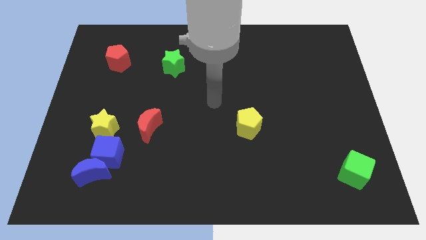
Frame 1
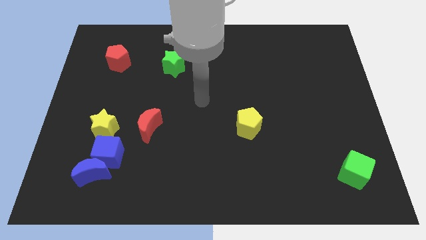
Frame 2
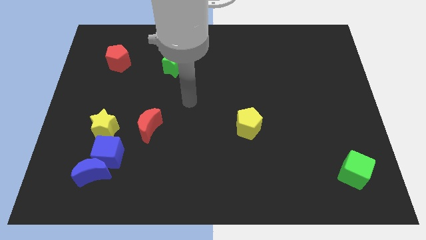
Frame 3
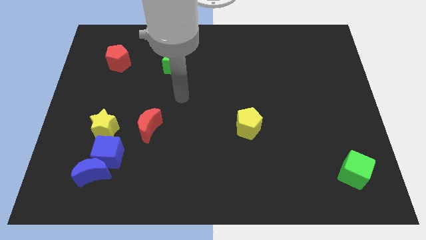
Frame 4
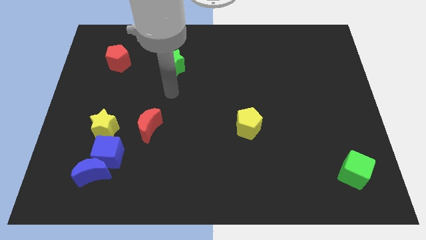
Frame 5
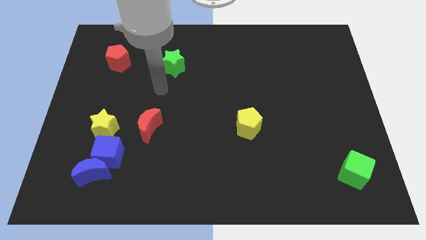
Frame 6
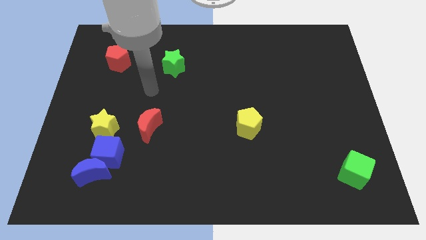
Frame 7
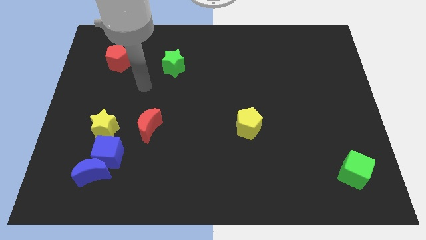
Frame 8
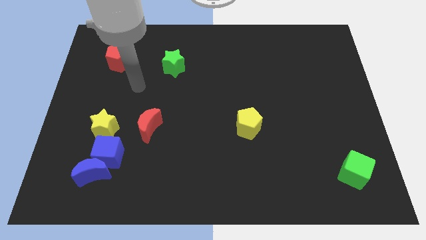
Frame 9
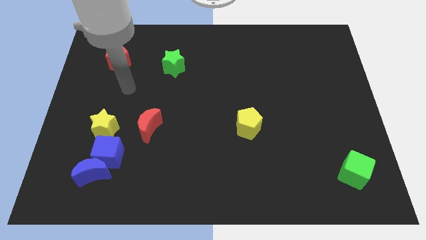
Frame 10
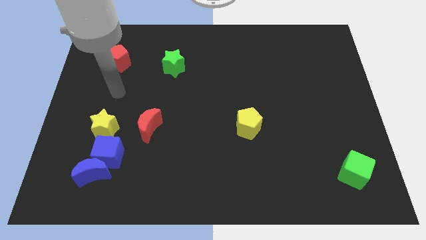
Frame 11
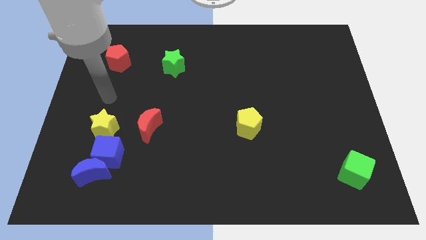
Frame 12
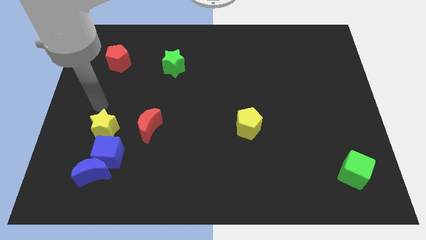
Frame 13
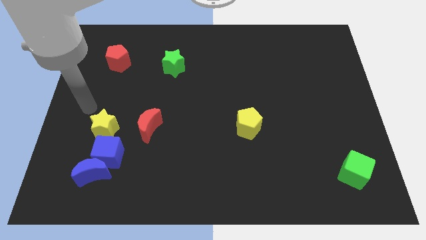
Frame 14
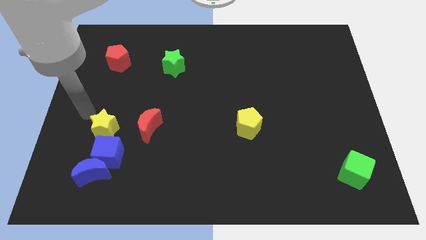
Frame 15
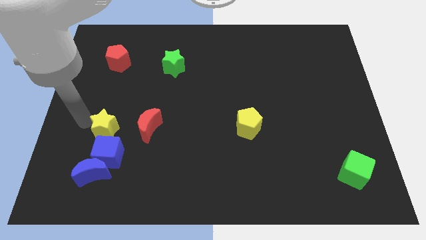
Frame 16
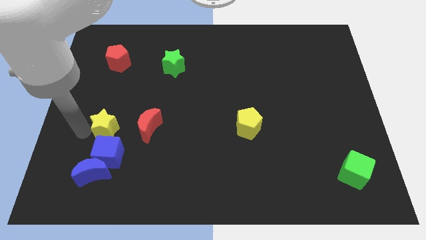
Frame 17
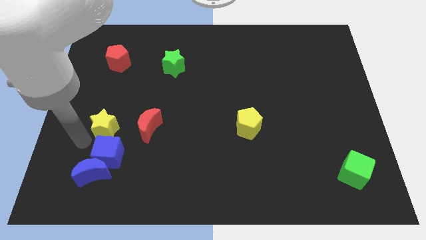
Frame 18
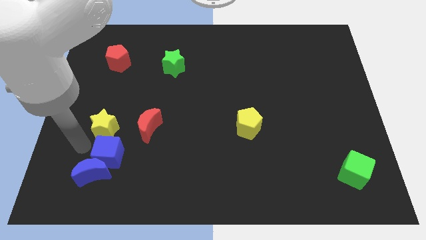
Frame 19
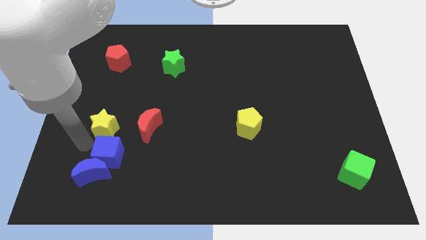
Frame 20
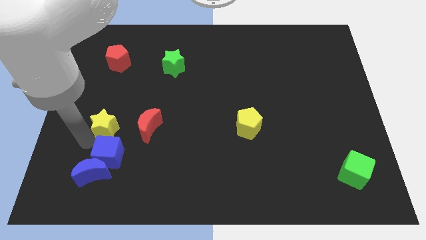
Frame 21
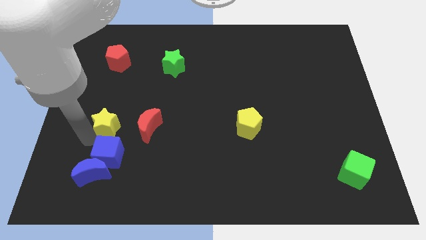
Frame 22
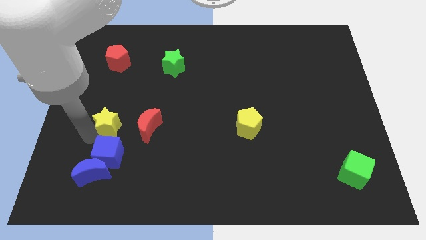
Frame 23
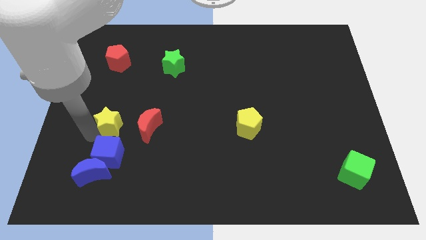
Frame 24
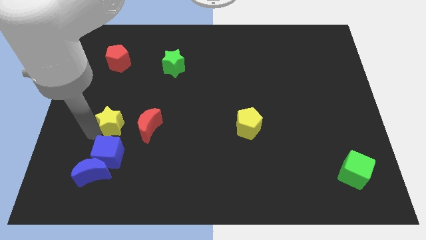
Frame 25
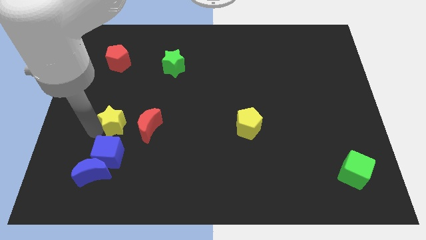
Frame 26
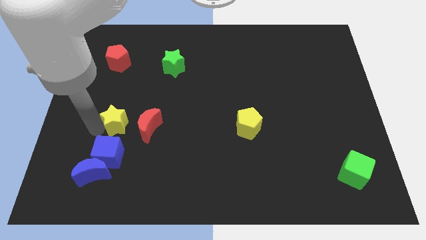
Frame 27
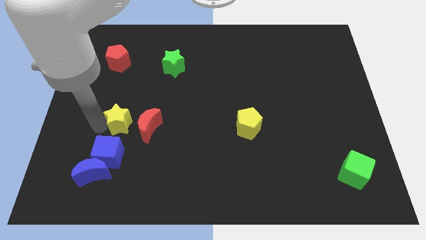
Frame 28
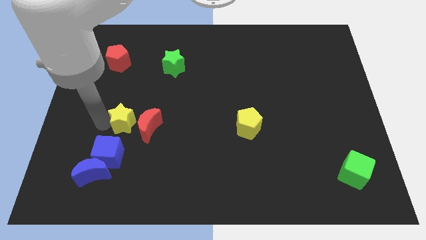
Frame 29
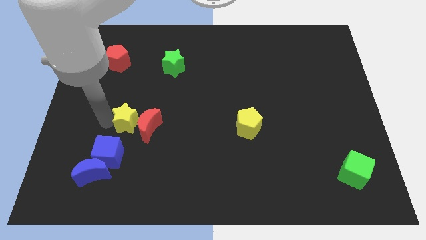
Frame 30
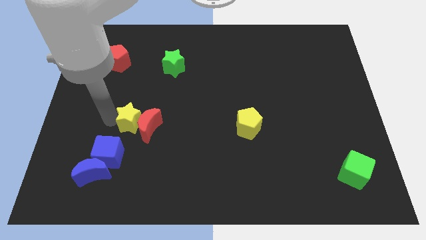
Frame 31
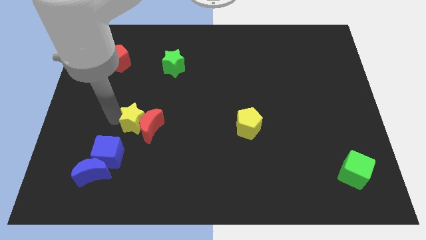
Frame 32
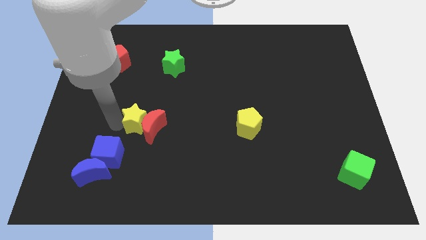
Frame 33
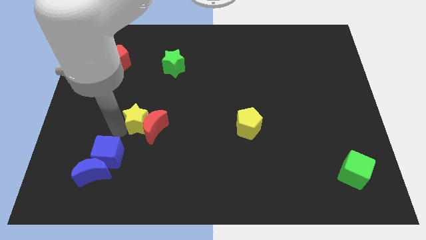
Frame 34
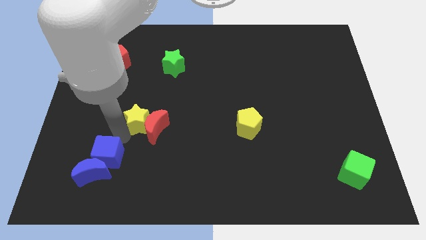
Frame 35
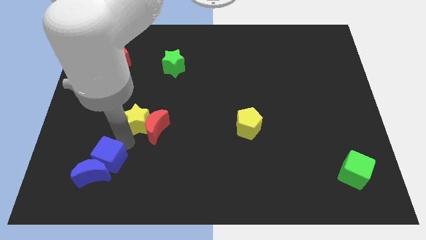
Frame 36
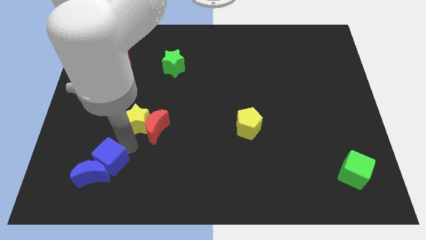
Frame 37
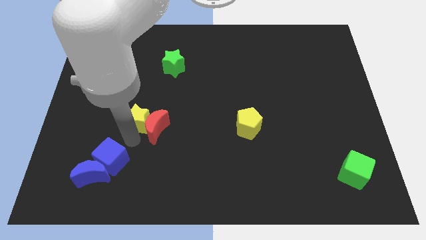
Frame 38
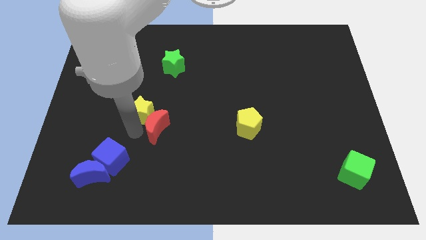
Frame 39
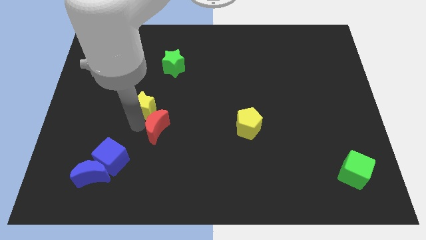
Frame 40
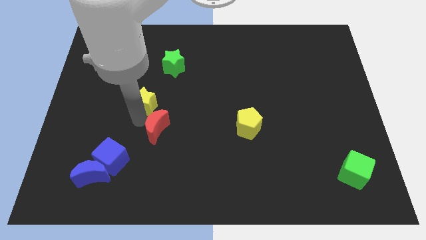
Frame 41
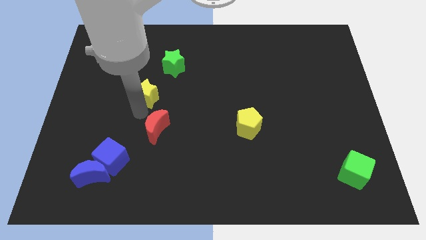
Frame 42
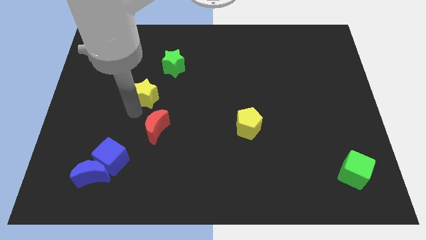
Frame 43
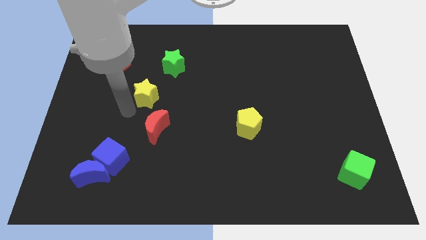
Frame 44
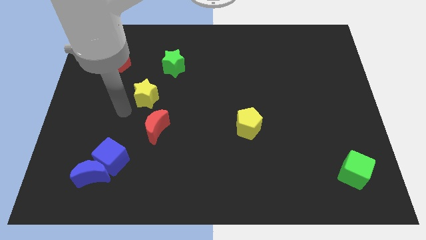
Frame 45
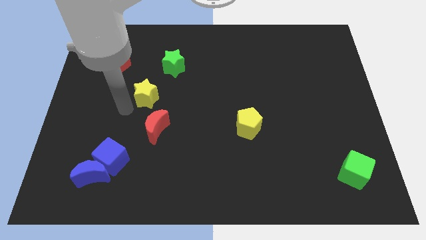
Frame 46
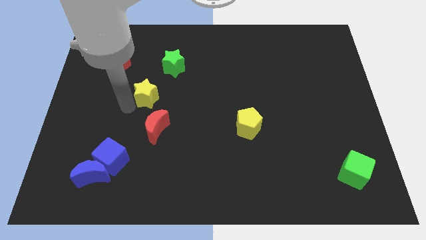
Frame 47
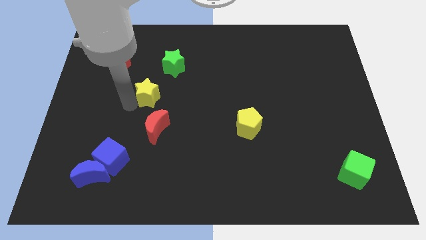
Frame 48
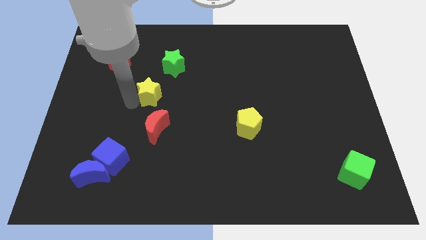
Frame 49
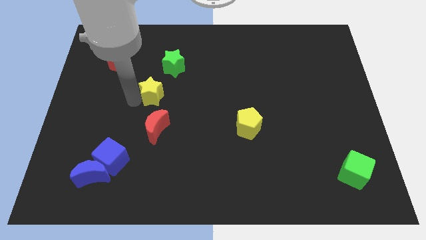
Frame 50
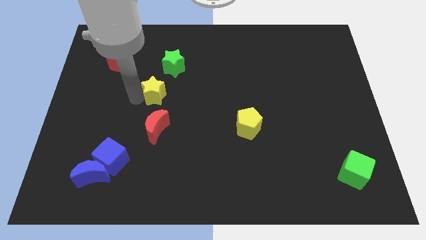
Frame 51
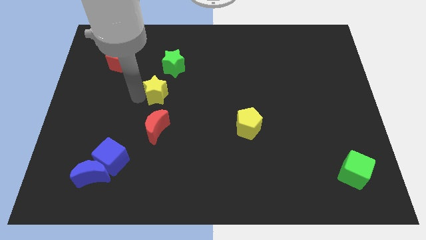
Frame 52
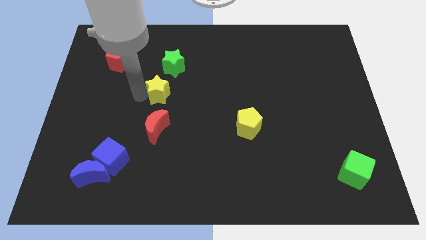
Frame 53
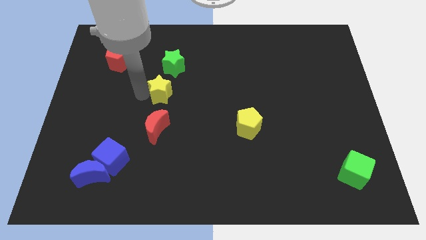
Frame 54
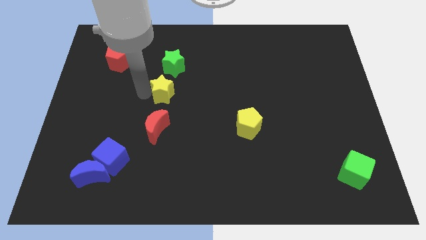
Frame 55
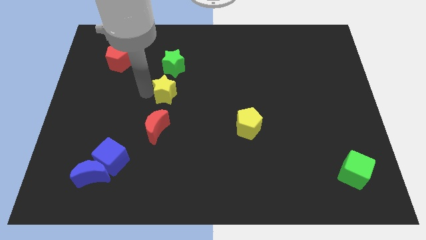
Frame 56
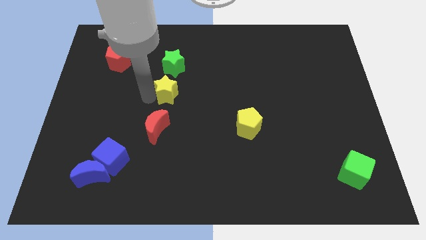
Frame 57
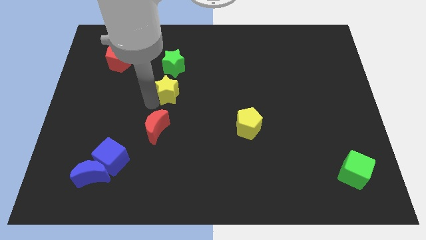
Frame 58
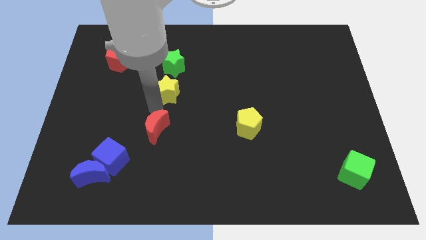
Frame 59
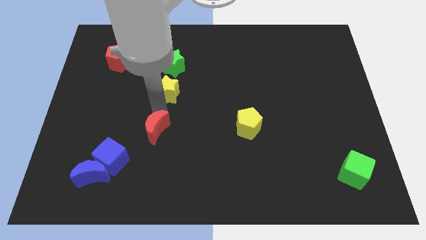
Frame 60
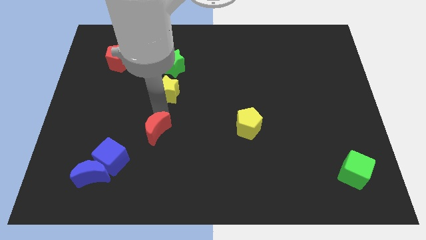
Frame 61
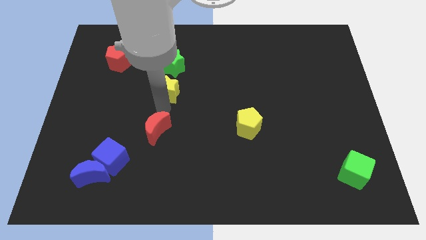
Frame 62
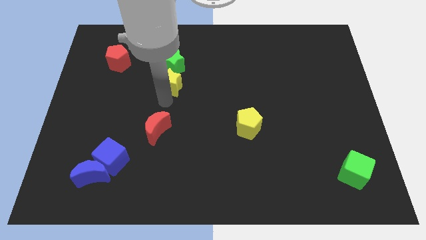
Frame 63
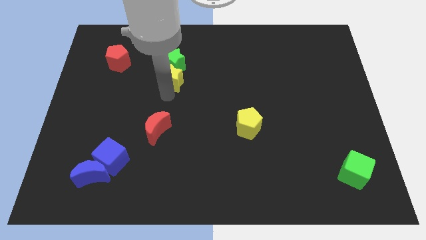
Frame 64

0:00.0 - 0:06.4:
move the yellow star next to the green star
